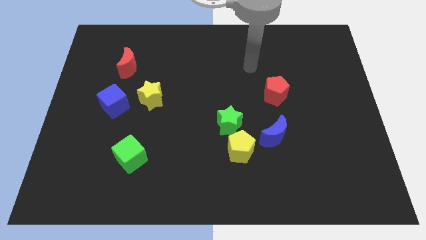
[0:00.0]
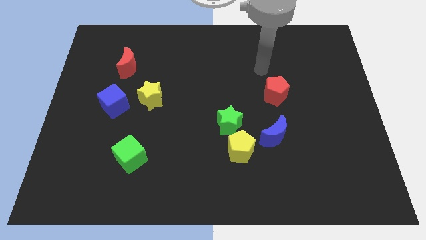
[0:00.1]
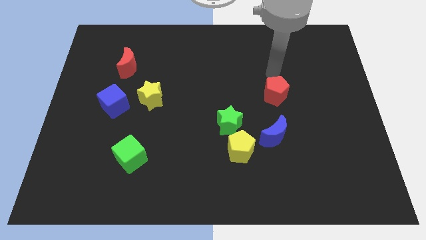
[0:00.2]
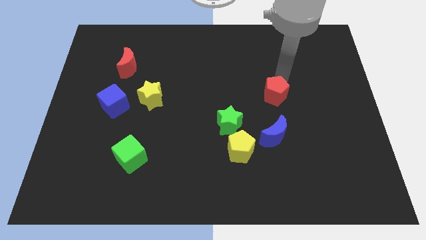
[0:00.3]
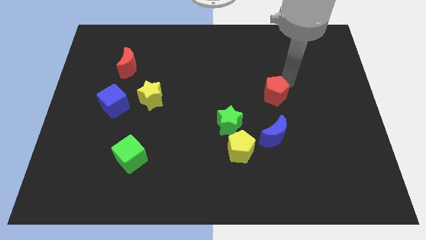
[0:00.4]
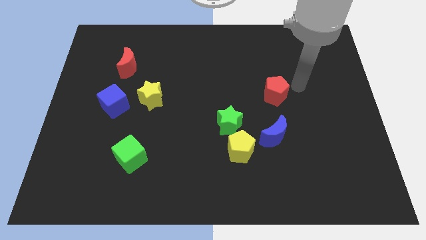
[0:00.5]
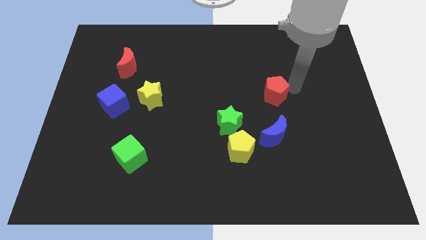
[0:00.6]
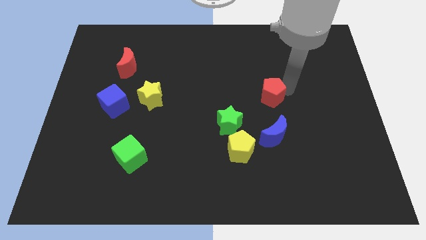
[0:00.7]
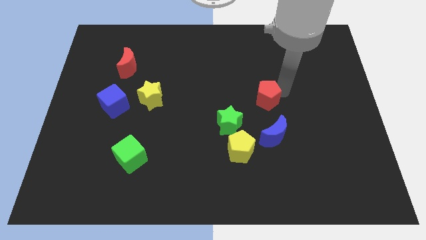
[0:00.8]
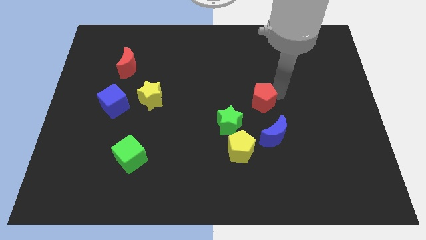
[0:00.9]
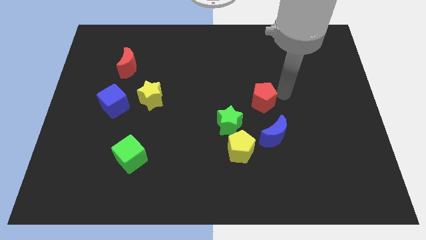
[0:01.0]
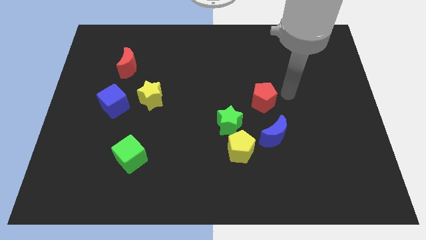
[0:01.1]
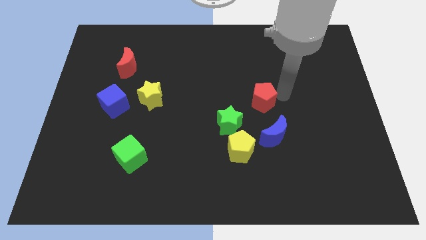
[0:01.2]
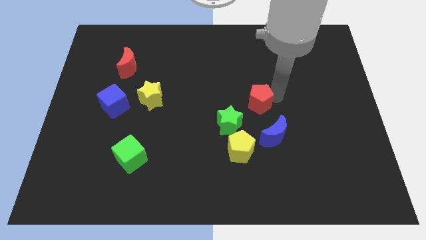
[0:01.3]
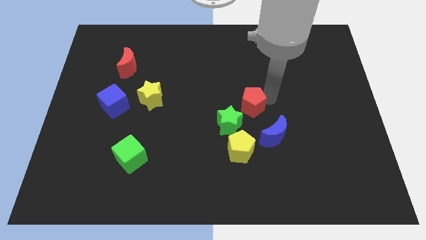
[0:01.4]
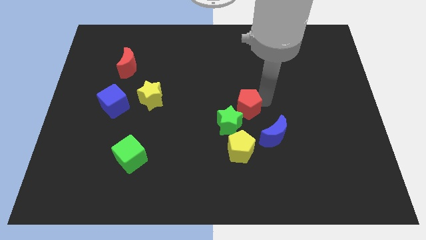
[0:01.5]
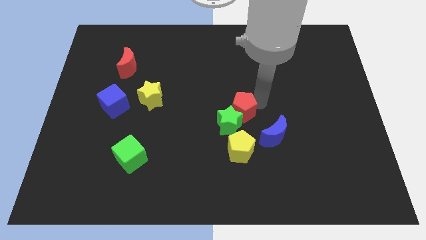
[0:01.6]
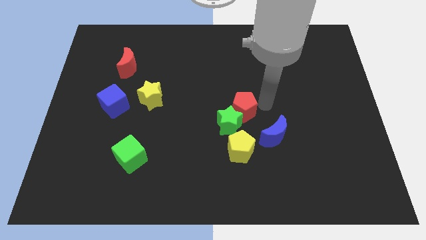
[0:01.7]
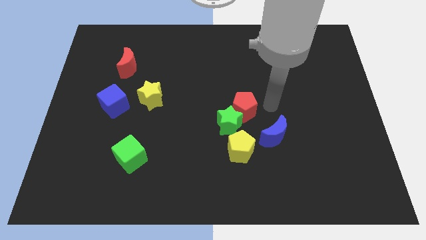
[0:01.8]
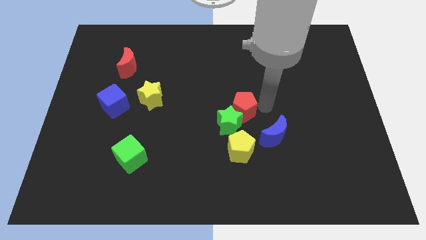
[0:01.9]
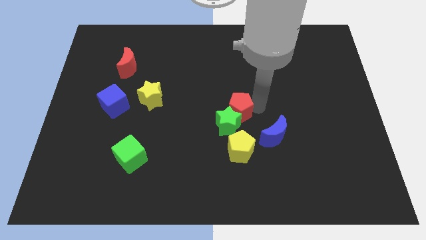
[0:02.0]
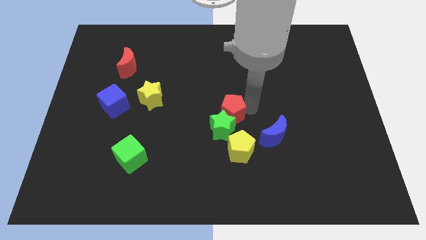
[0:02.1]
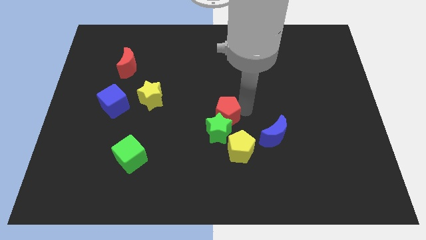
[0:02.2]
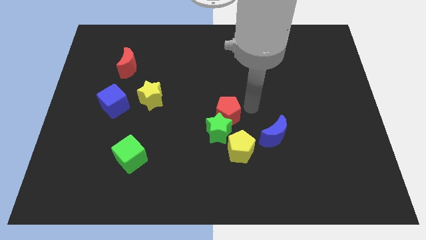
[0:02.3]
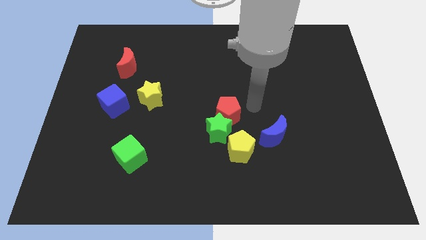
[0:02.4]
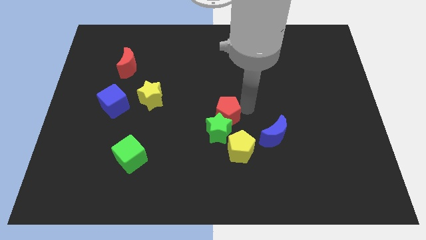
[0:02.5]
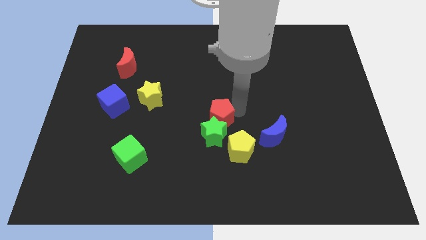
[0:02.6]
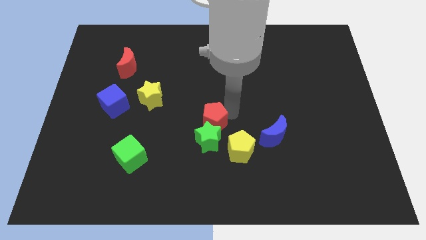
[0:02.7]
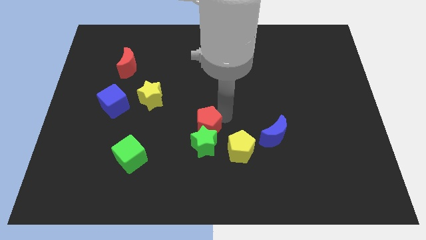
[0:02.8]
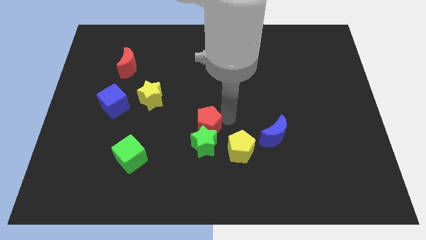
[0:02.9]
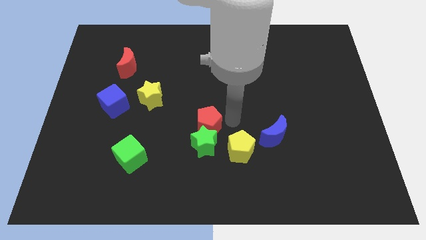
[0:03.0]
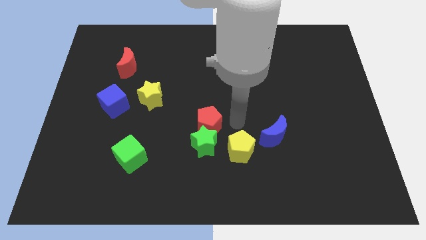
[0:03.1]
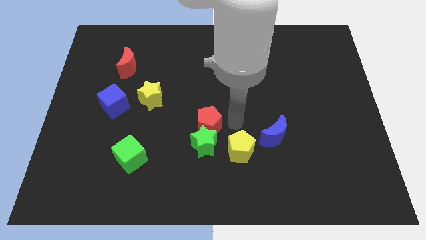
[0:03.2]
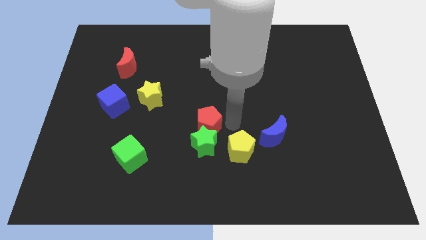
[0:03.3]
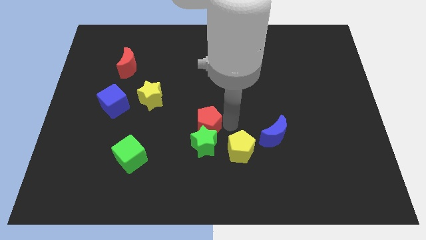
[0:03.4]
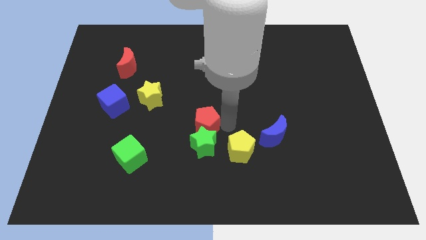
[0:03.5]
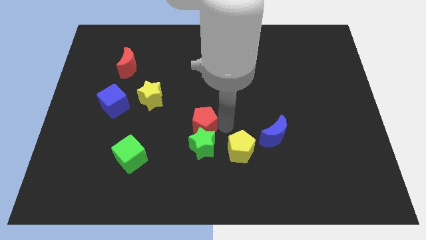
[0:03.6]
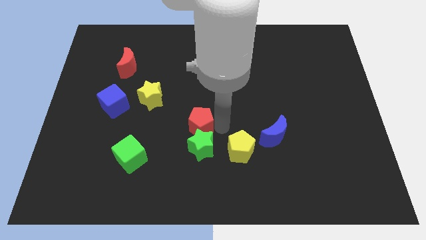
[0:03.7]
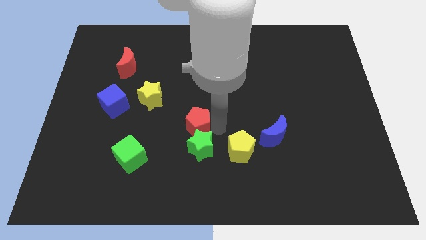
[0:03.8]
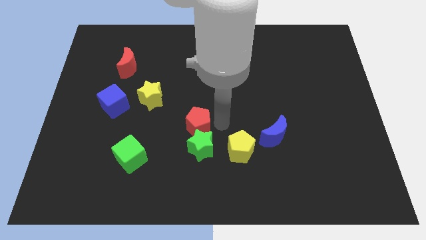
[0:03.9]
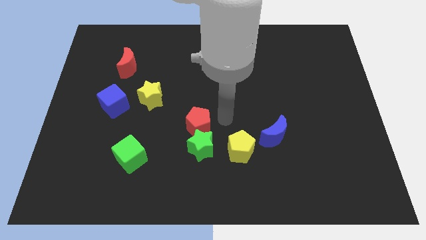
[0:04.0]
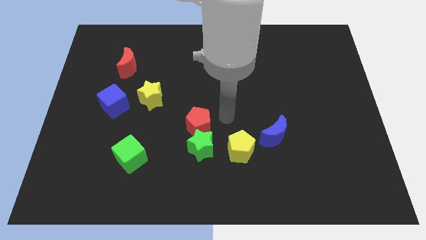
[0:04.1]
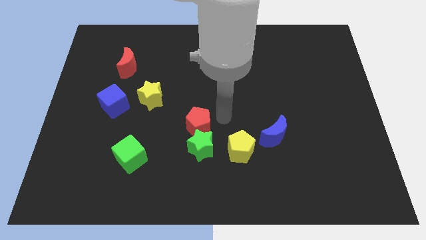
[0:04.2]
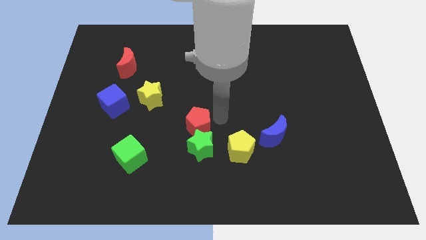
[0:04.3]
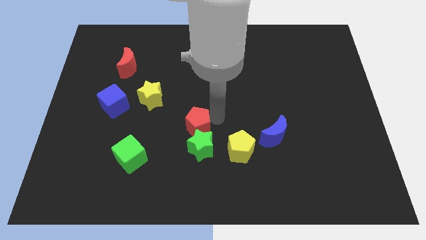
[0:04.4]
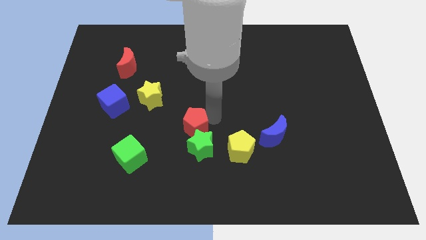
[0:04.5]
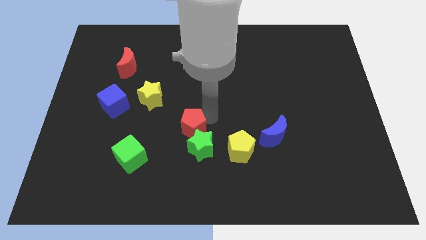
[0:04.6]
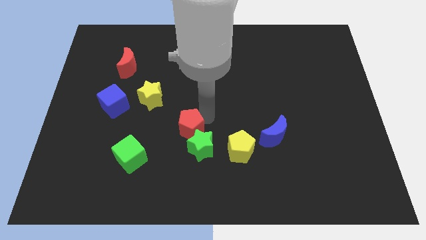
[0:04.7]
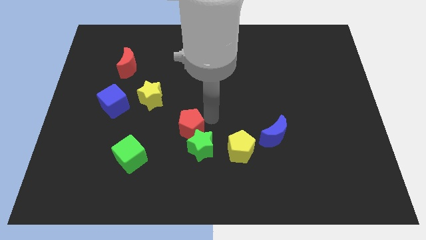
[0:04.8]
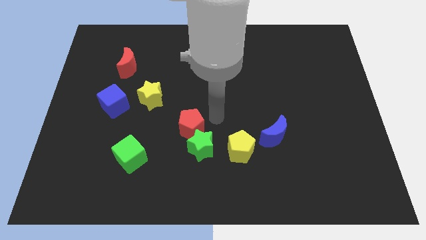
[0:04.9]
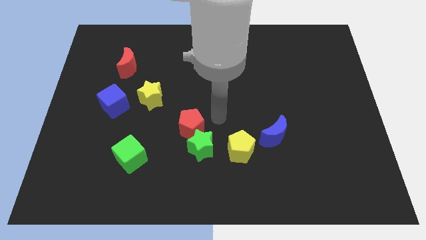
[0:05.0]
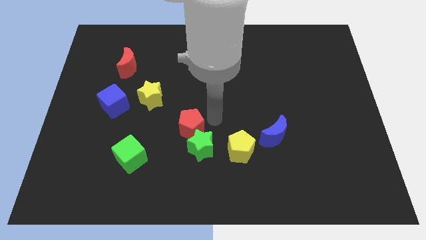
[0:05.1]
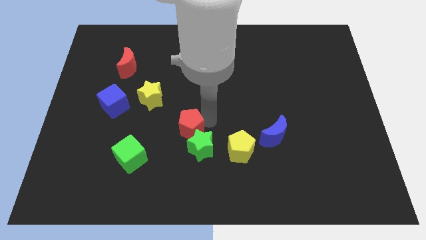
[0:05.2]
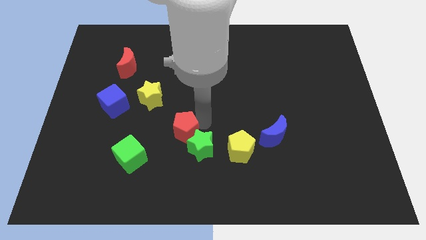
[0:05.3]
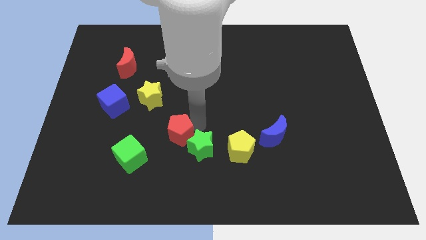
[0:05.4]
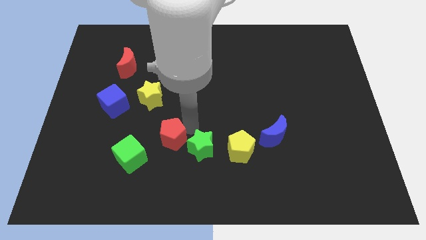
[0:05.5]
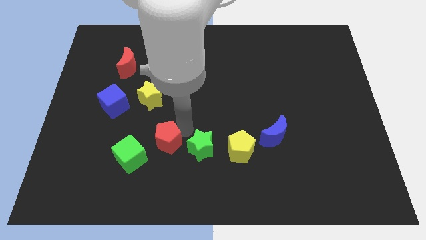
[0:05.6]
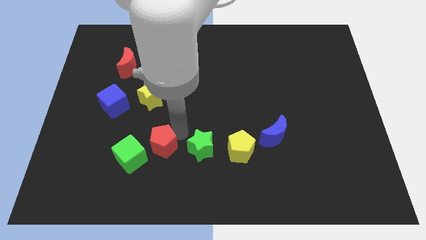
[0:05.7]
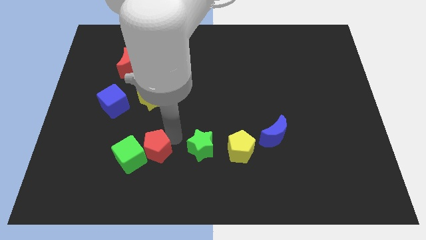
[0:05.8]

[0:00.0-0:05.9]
move the red pentagon to the green cube

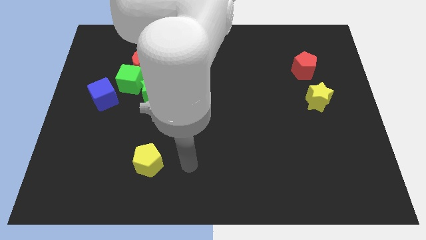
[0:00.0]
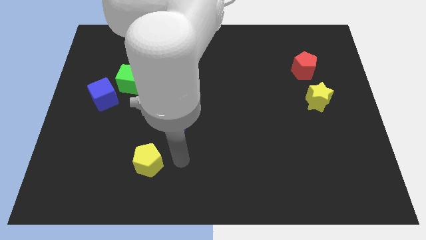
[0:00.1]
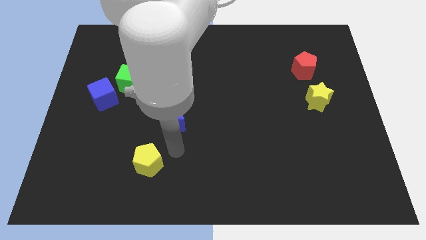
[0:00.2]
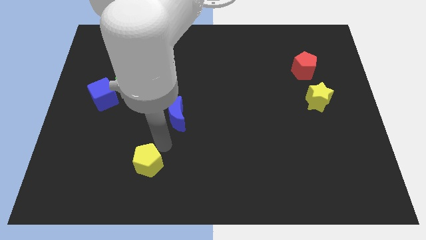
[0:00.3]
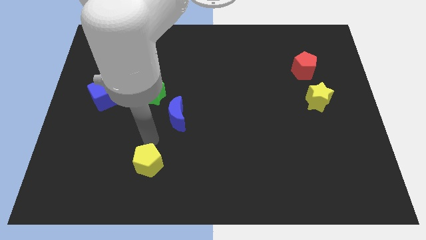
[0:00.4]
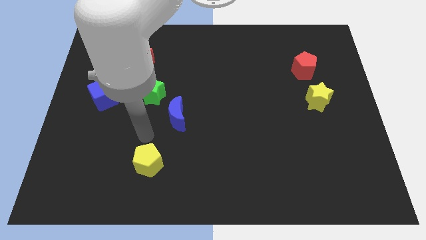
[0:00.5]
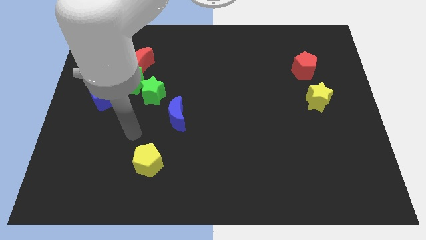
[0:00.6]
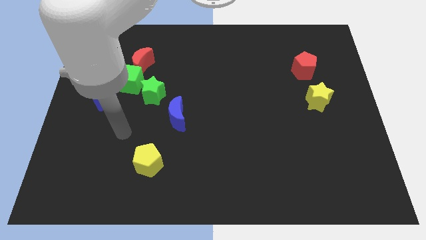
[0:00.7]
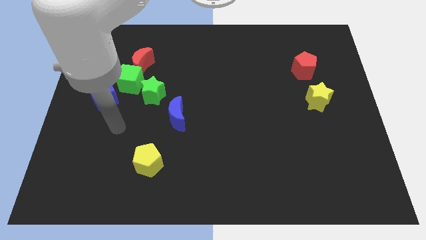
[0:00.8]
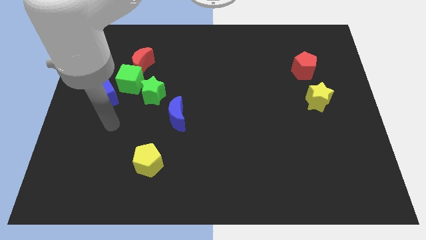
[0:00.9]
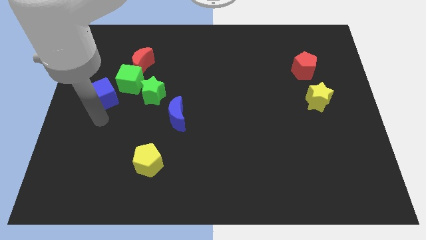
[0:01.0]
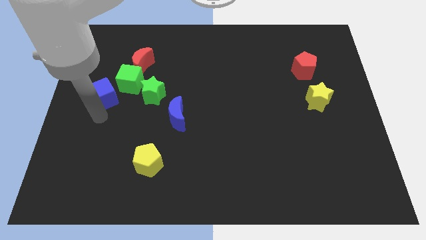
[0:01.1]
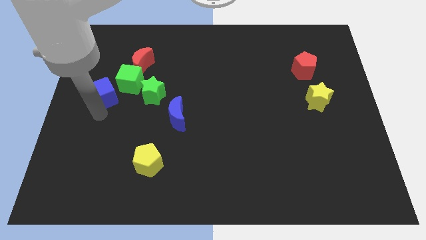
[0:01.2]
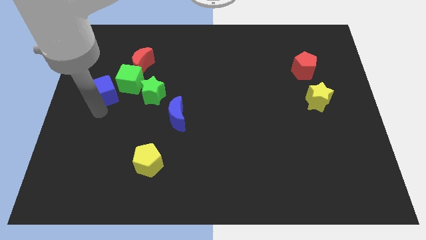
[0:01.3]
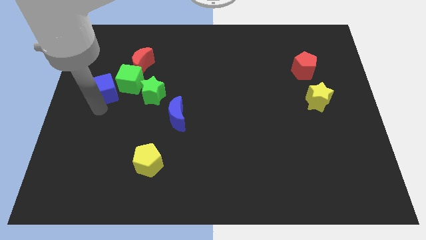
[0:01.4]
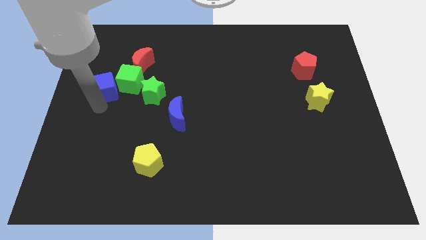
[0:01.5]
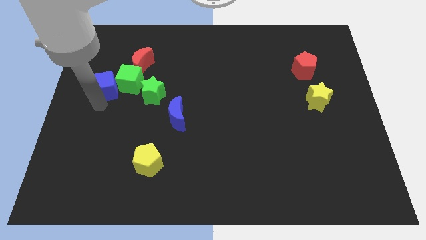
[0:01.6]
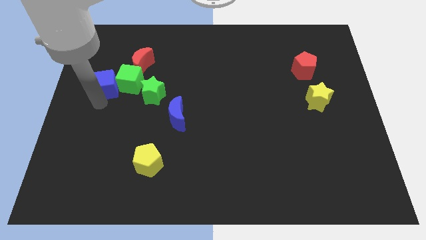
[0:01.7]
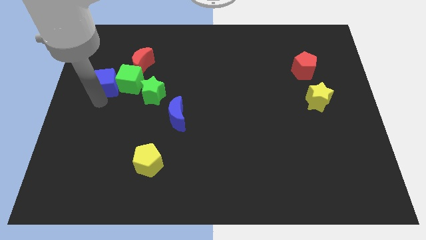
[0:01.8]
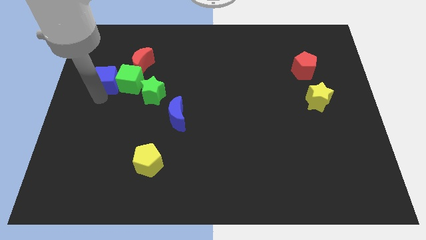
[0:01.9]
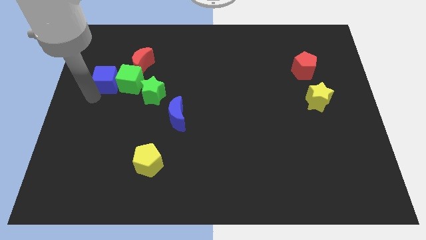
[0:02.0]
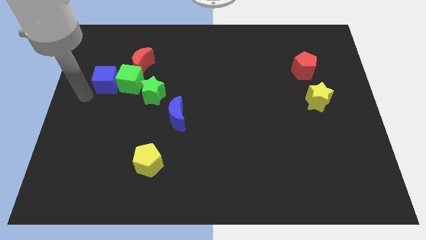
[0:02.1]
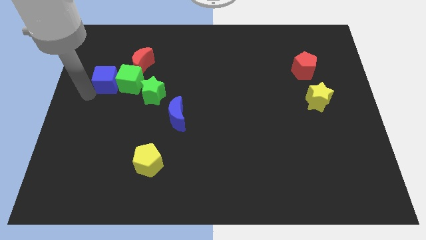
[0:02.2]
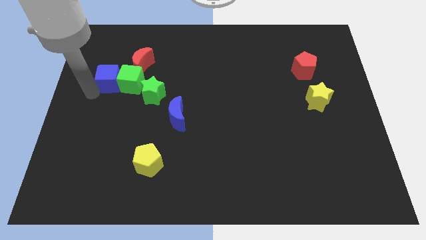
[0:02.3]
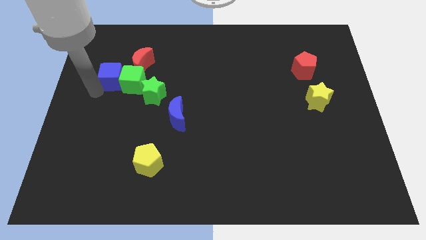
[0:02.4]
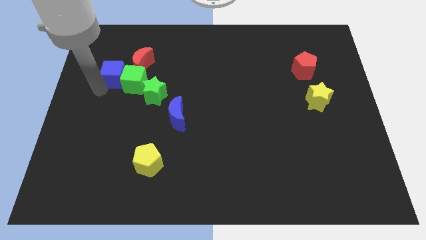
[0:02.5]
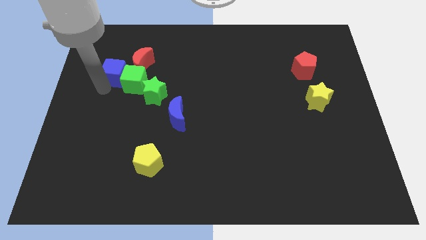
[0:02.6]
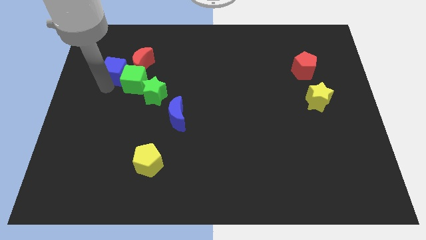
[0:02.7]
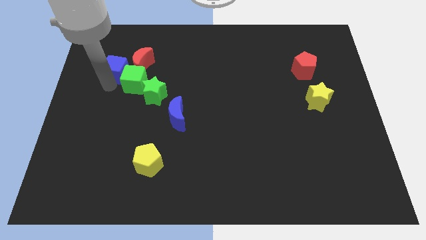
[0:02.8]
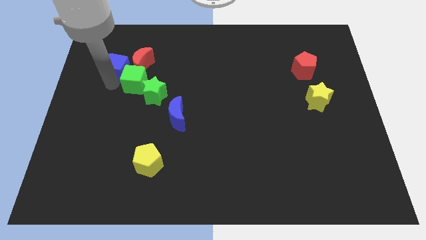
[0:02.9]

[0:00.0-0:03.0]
push the blue cube next to the red moon
